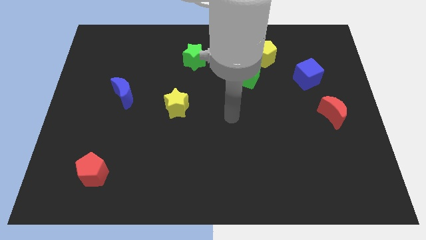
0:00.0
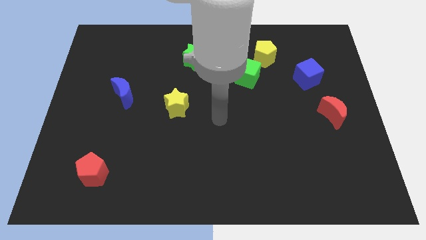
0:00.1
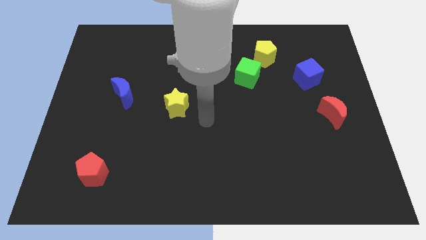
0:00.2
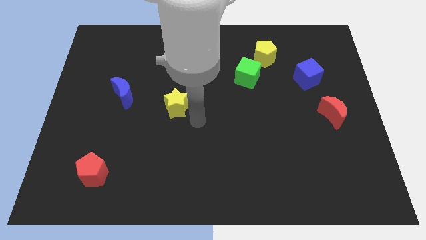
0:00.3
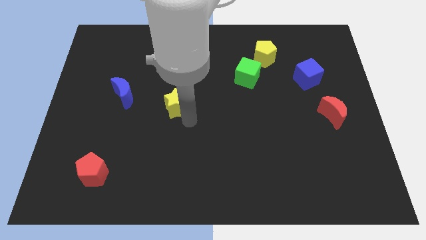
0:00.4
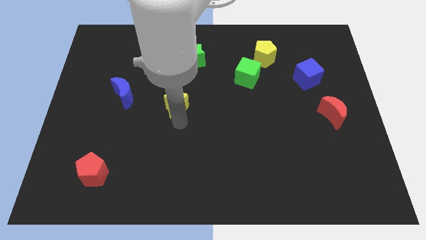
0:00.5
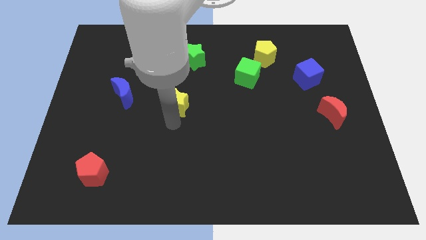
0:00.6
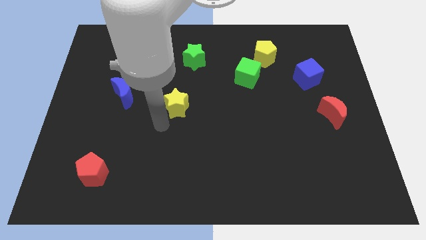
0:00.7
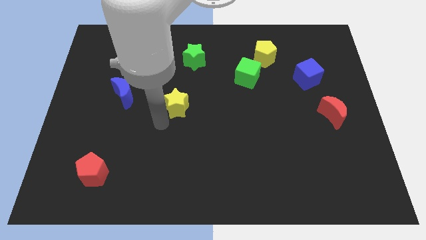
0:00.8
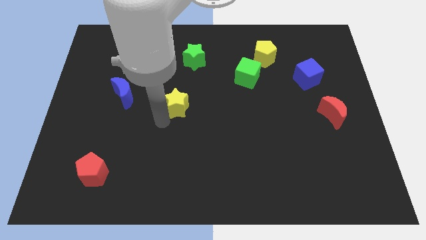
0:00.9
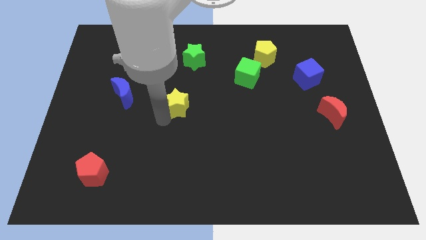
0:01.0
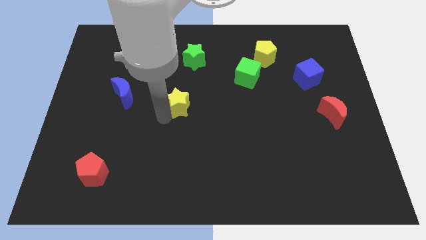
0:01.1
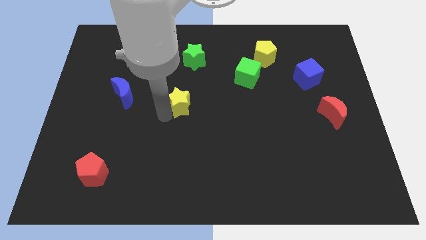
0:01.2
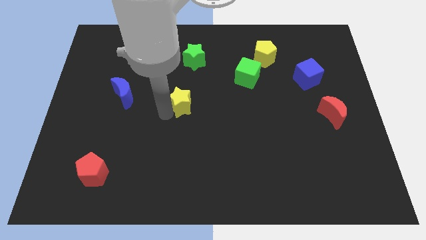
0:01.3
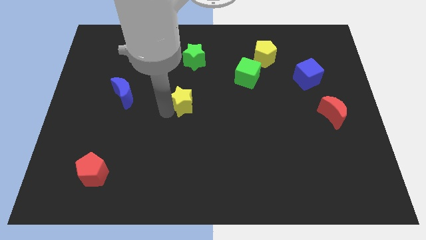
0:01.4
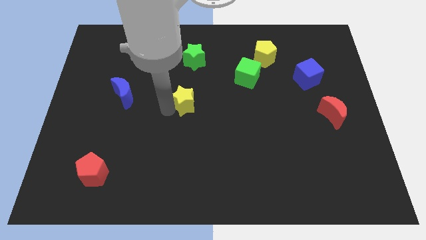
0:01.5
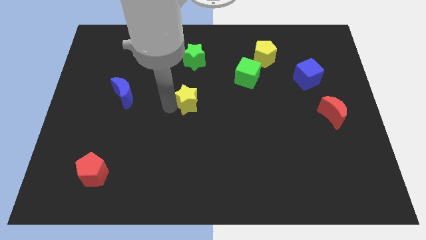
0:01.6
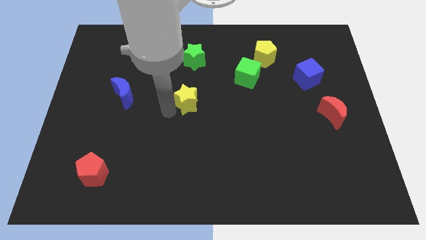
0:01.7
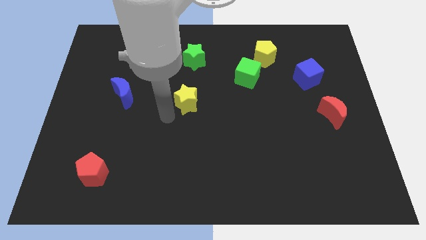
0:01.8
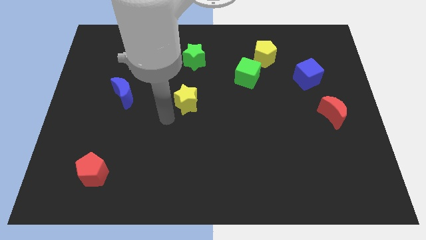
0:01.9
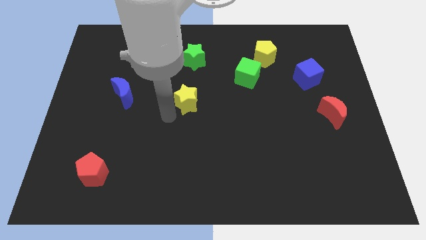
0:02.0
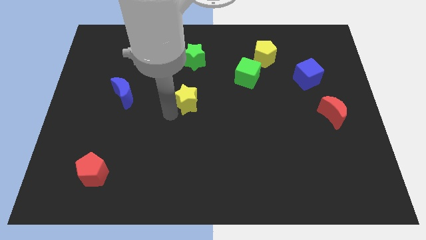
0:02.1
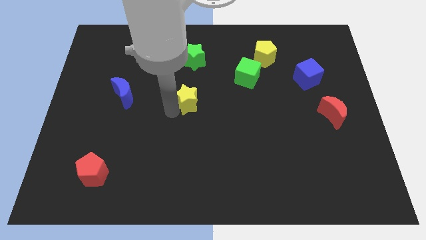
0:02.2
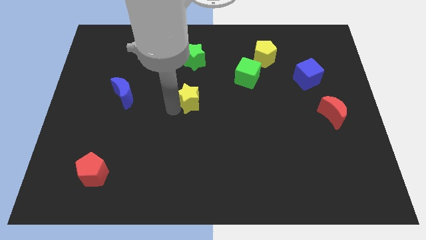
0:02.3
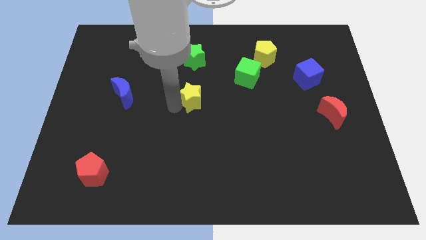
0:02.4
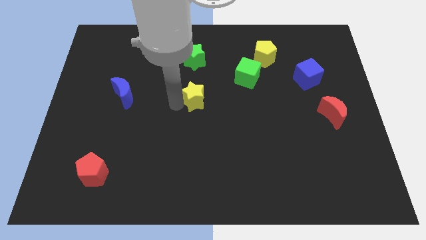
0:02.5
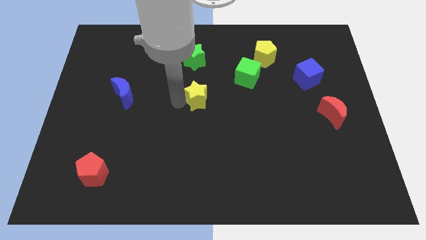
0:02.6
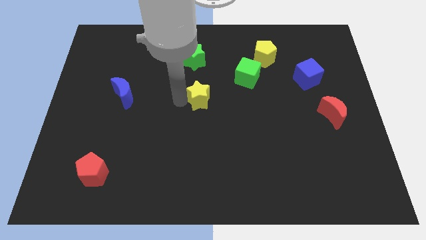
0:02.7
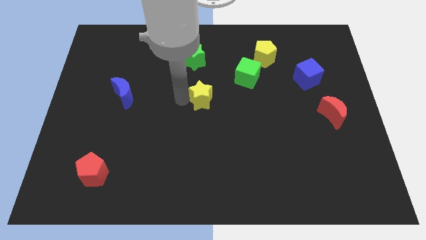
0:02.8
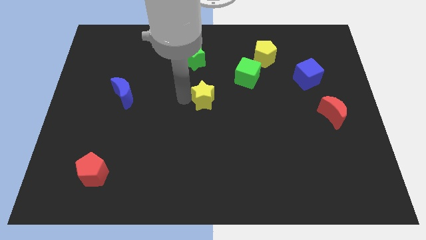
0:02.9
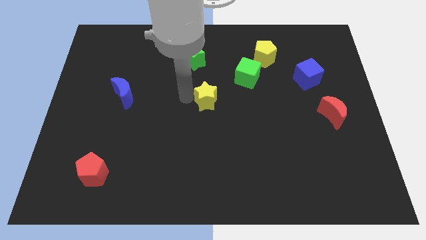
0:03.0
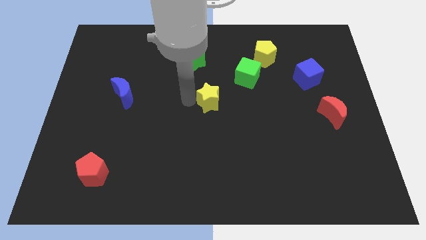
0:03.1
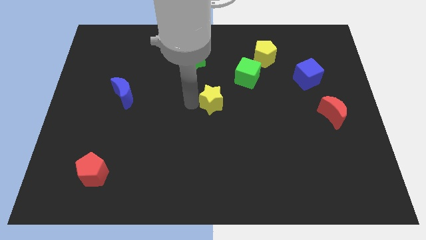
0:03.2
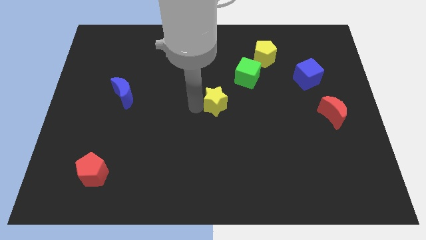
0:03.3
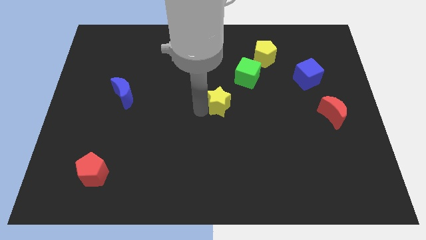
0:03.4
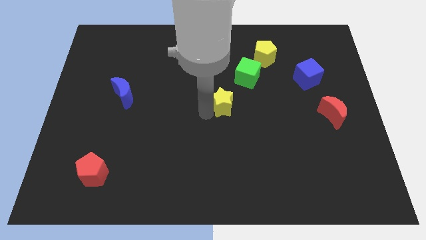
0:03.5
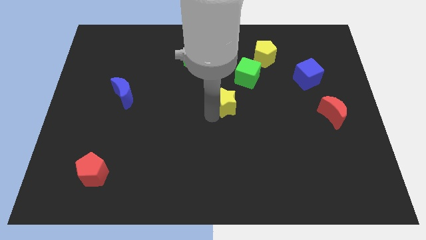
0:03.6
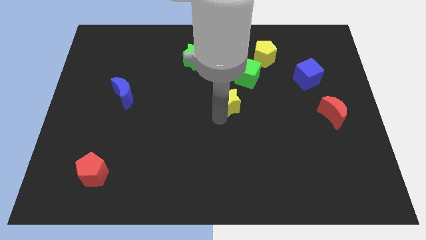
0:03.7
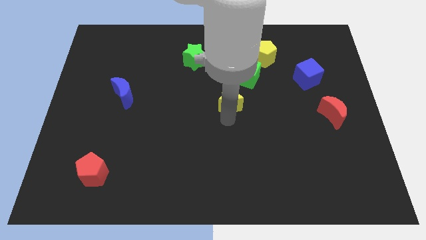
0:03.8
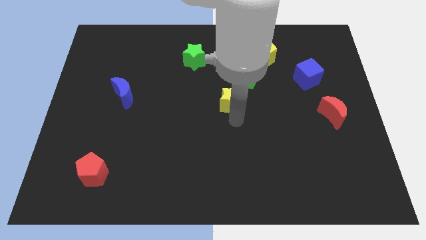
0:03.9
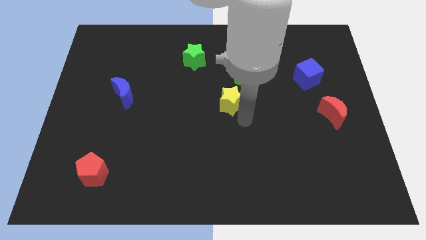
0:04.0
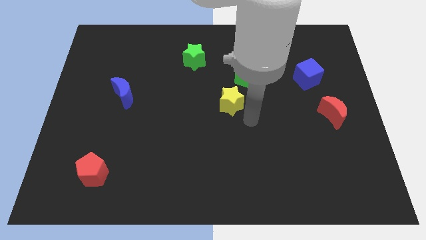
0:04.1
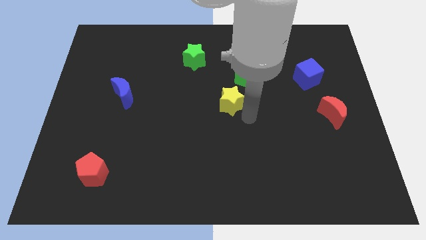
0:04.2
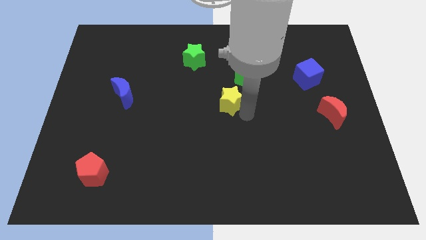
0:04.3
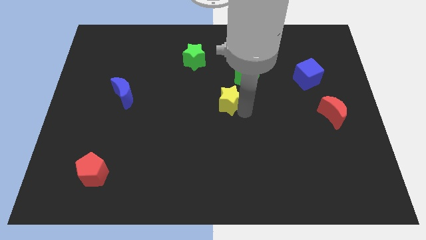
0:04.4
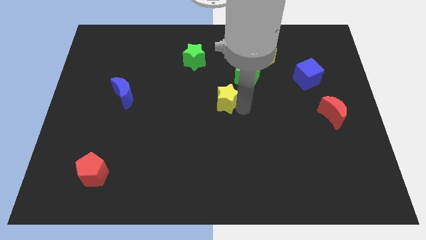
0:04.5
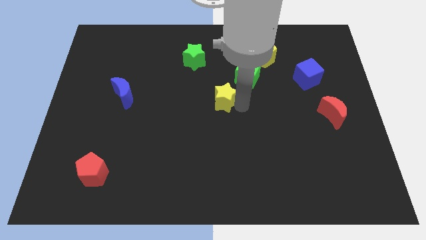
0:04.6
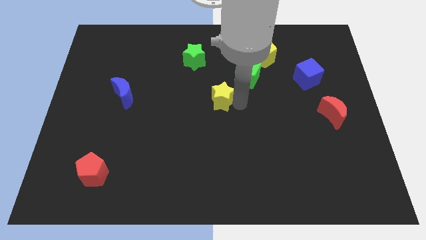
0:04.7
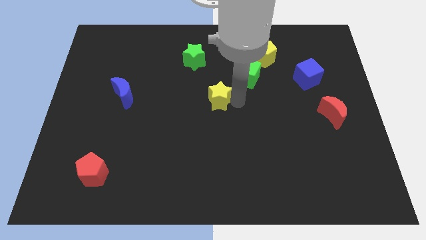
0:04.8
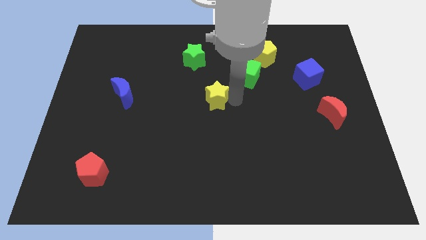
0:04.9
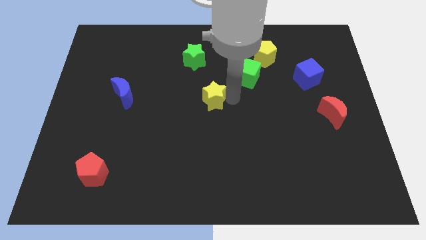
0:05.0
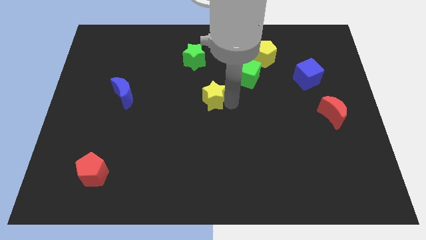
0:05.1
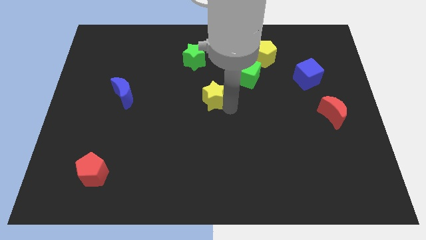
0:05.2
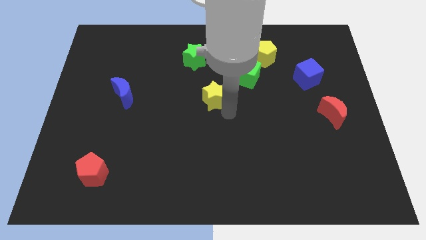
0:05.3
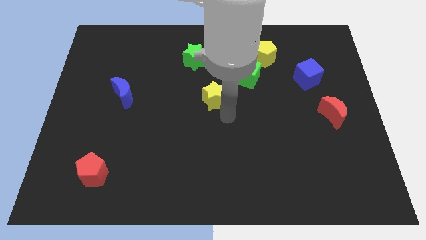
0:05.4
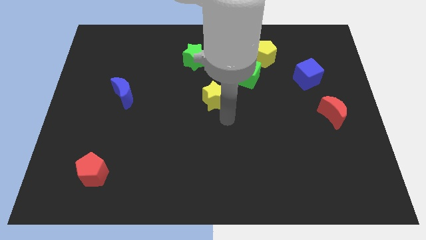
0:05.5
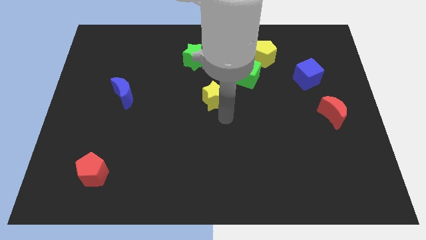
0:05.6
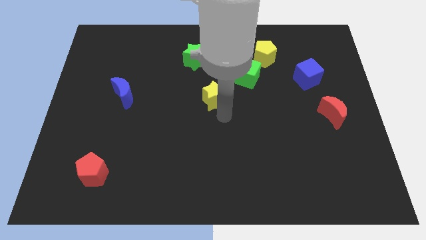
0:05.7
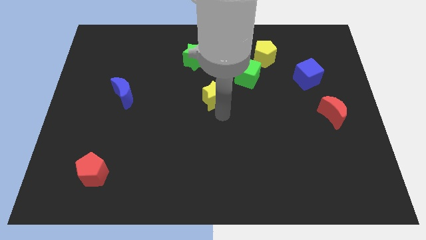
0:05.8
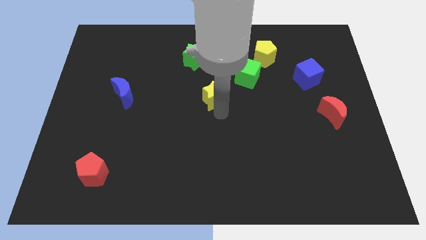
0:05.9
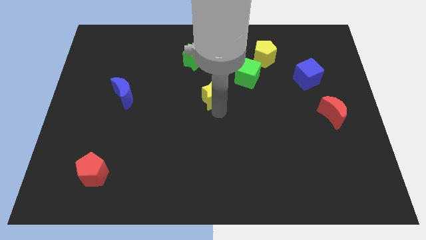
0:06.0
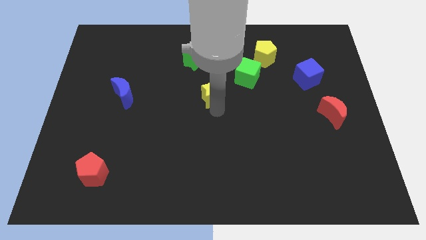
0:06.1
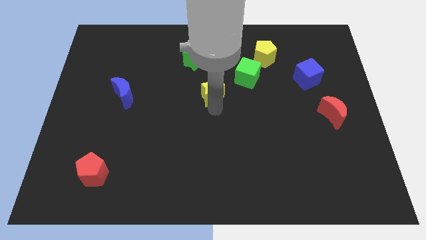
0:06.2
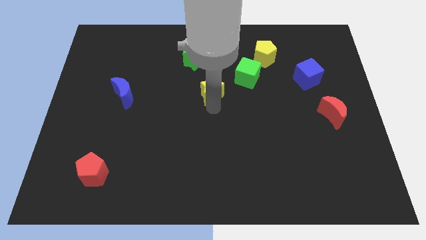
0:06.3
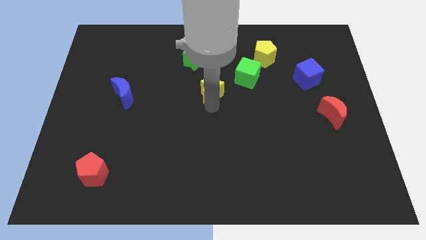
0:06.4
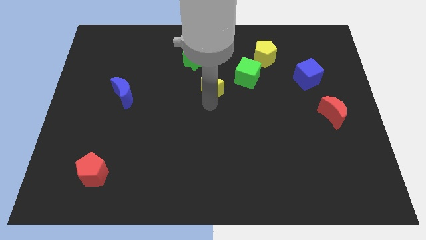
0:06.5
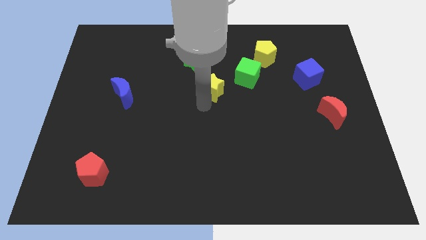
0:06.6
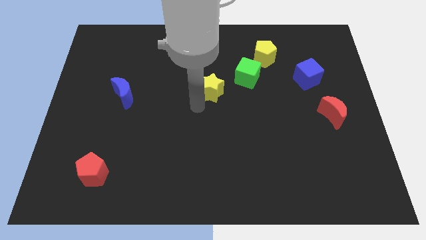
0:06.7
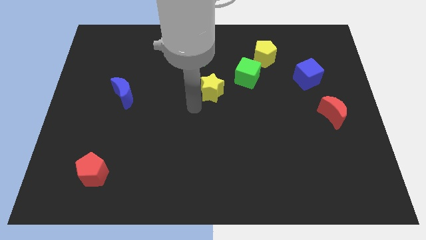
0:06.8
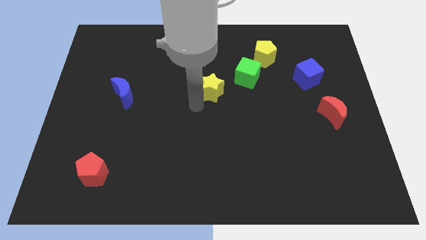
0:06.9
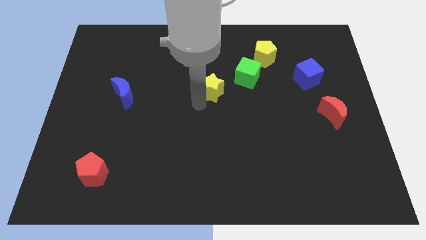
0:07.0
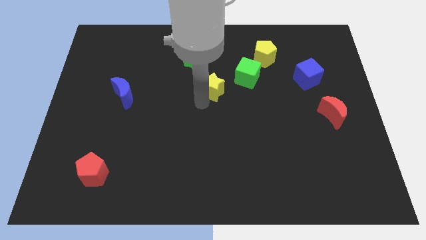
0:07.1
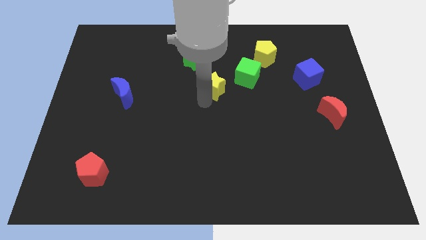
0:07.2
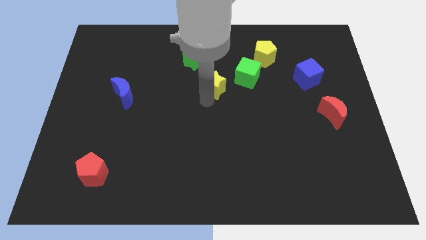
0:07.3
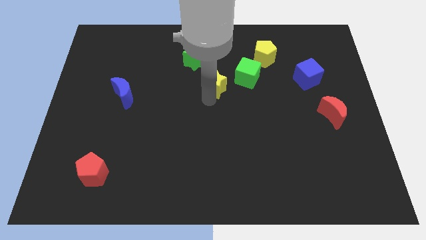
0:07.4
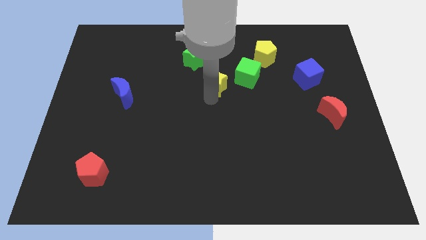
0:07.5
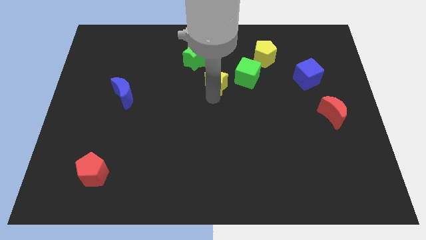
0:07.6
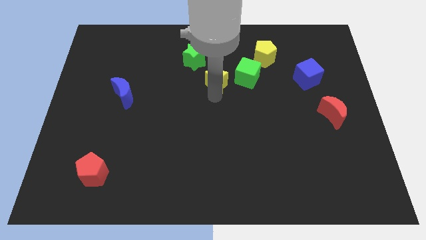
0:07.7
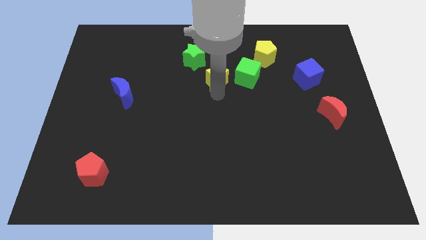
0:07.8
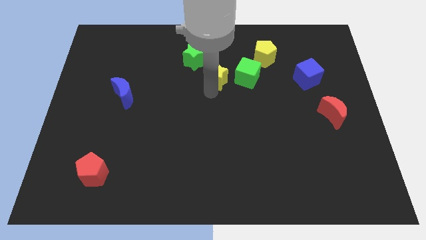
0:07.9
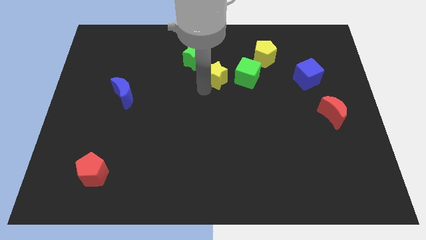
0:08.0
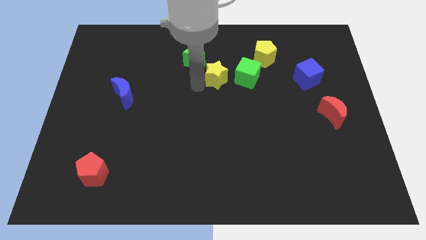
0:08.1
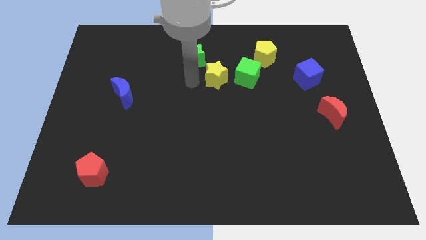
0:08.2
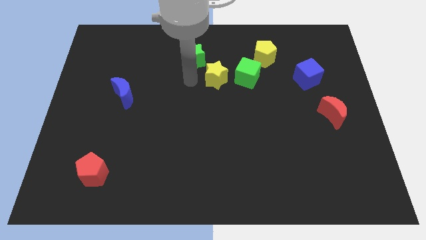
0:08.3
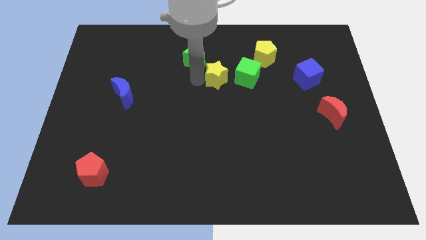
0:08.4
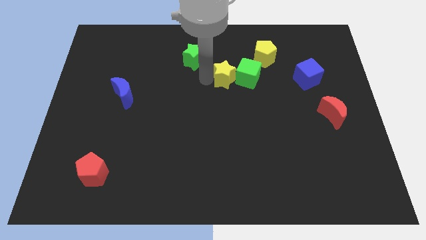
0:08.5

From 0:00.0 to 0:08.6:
put the yellow star towards the green cube
